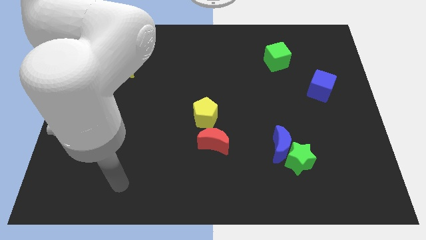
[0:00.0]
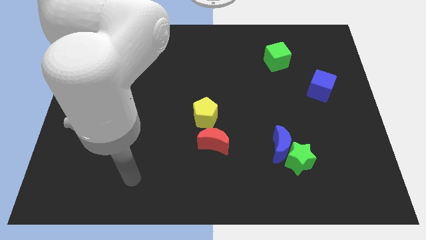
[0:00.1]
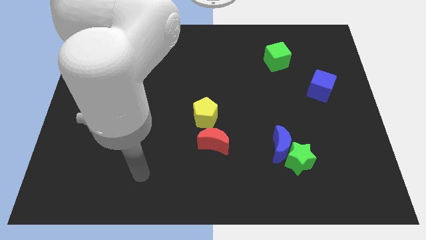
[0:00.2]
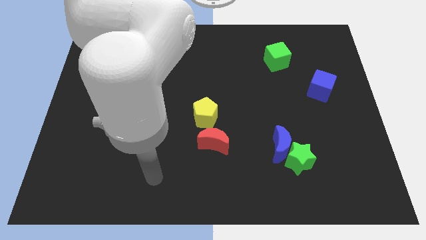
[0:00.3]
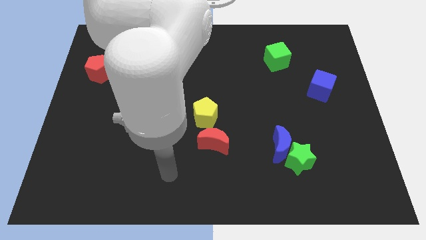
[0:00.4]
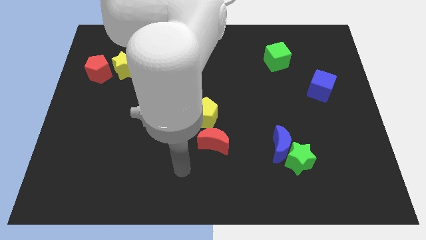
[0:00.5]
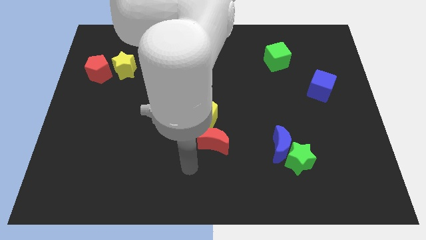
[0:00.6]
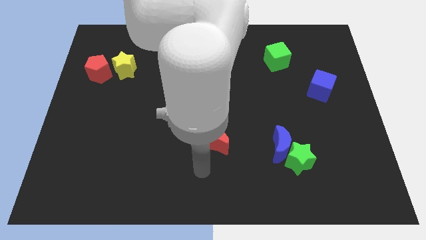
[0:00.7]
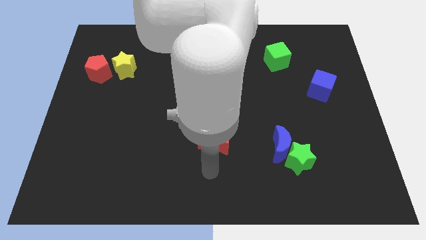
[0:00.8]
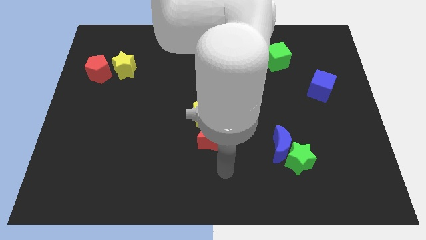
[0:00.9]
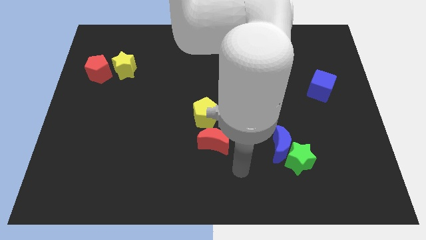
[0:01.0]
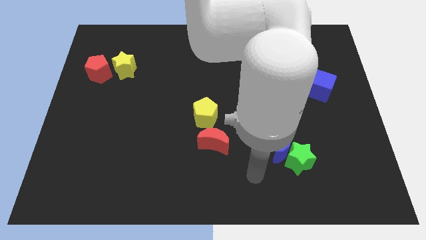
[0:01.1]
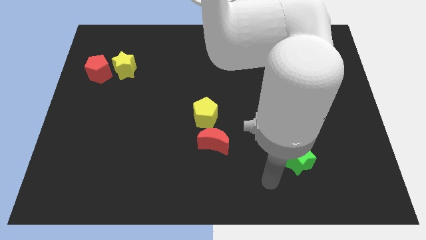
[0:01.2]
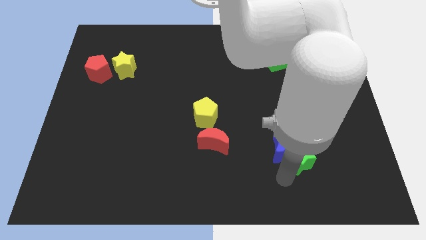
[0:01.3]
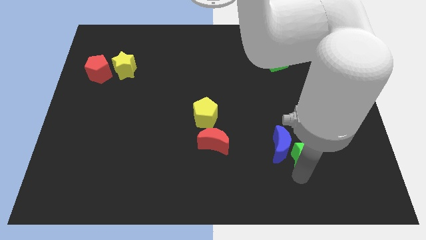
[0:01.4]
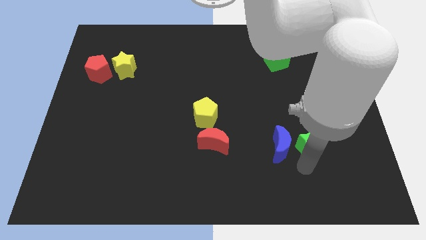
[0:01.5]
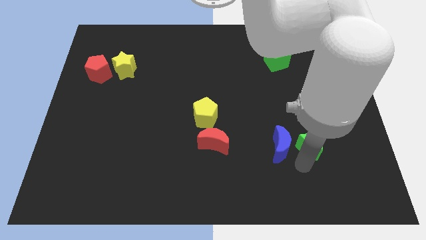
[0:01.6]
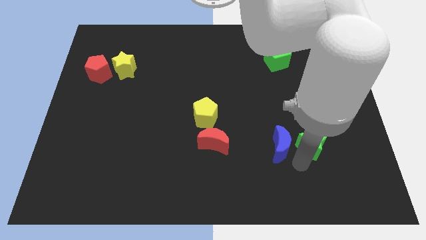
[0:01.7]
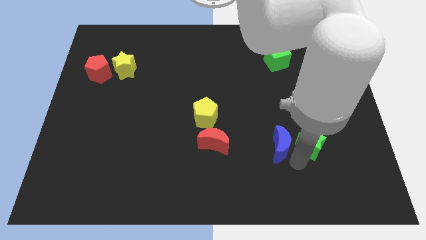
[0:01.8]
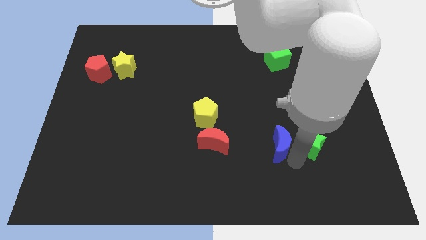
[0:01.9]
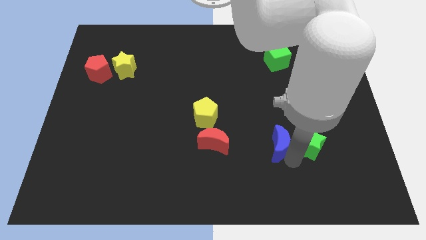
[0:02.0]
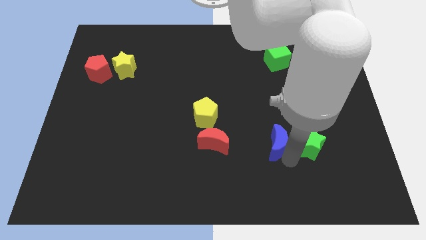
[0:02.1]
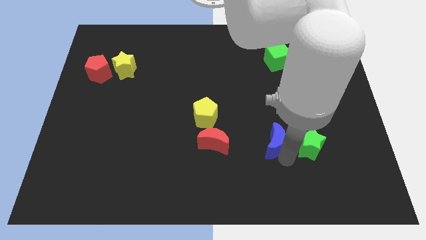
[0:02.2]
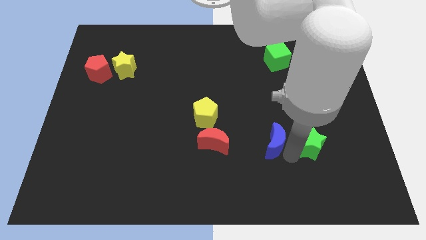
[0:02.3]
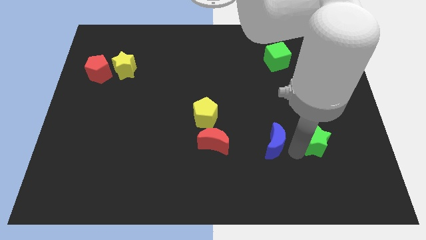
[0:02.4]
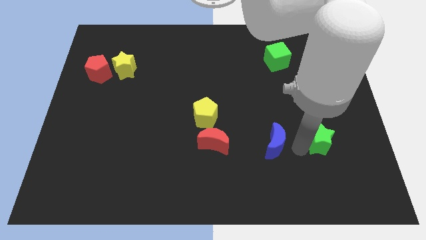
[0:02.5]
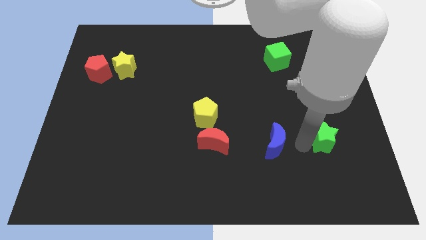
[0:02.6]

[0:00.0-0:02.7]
move the blue moon away from the green star

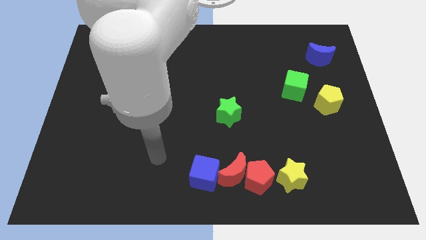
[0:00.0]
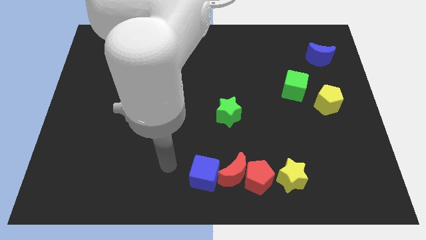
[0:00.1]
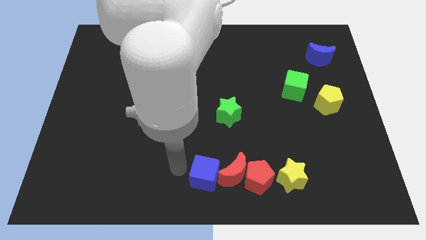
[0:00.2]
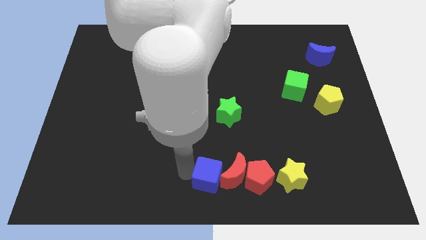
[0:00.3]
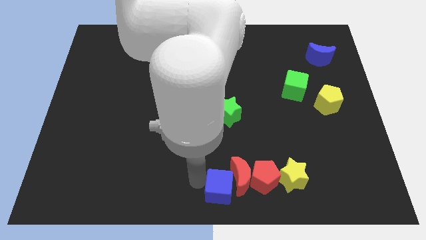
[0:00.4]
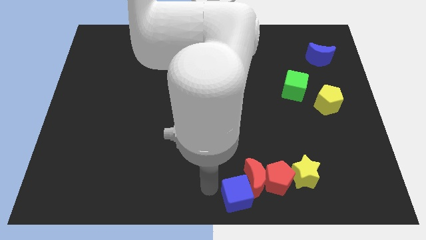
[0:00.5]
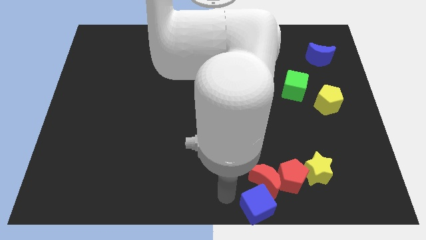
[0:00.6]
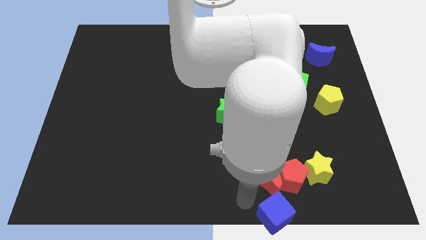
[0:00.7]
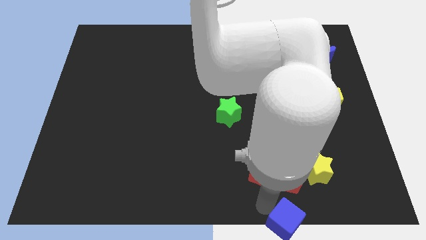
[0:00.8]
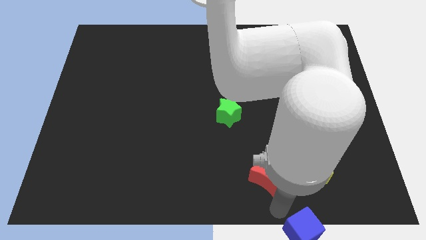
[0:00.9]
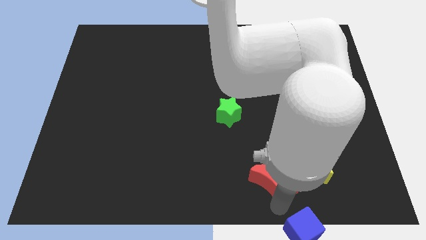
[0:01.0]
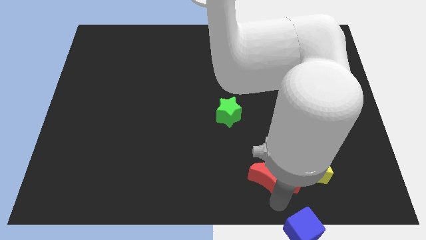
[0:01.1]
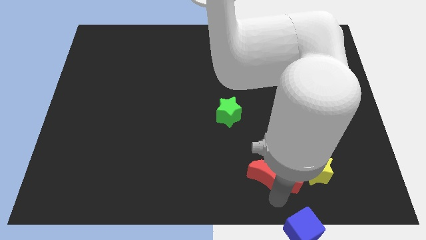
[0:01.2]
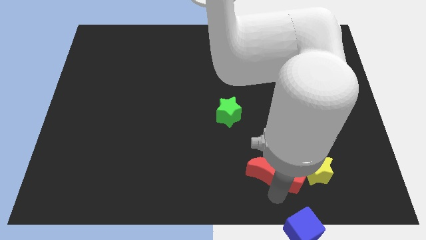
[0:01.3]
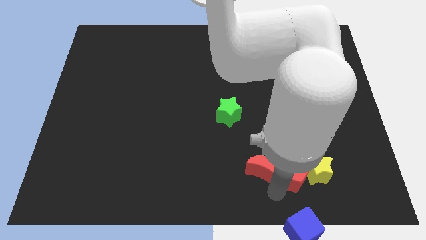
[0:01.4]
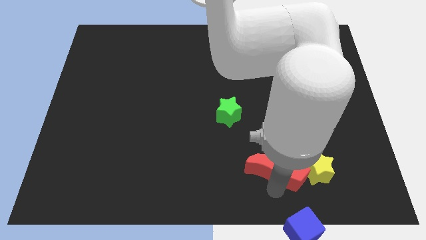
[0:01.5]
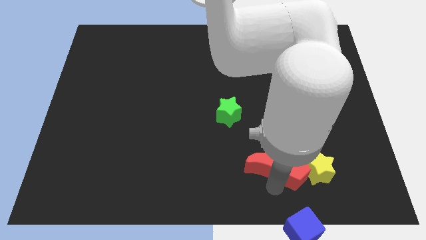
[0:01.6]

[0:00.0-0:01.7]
move the red moon away from the red pentagon and blue cube

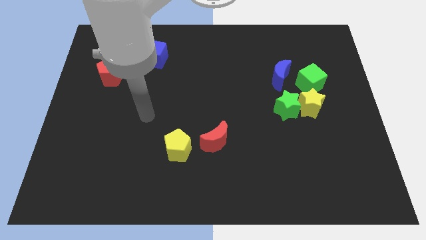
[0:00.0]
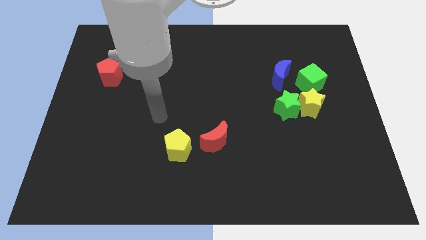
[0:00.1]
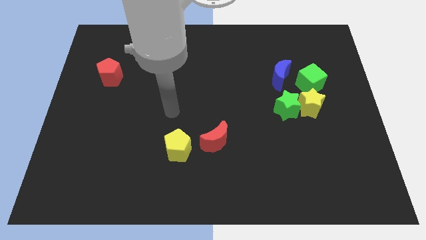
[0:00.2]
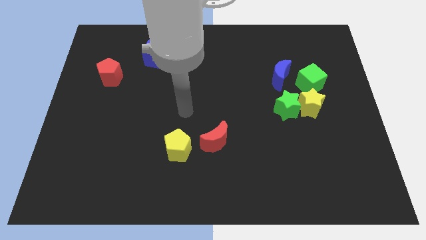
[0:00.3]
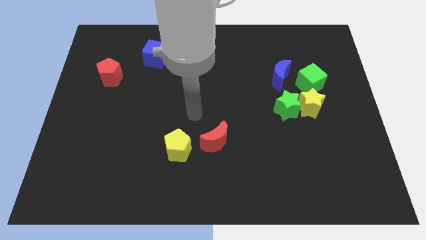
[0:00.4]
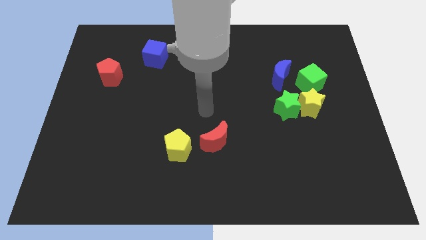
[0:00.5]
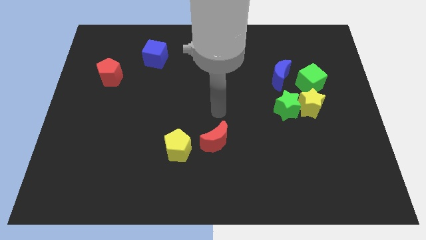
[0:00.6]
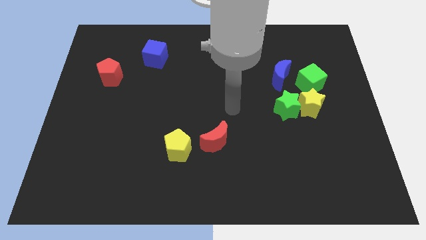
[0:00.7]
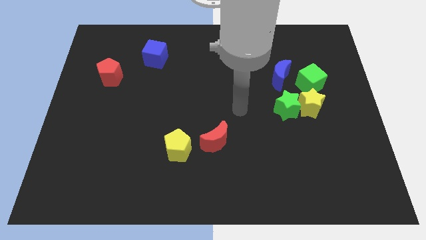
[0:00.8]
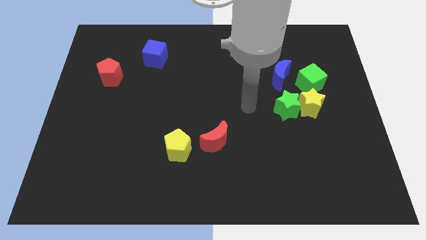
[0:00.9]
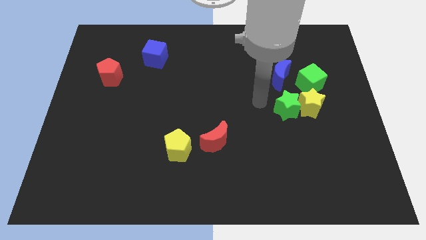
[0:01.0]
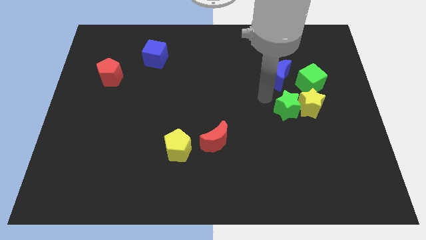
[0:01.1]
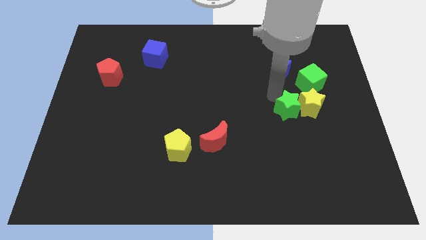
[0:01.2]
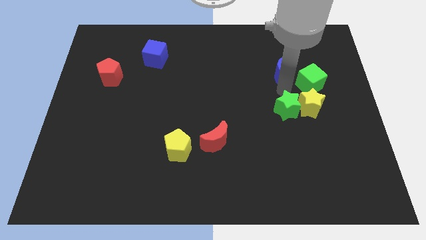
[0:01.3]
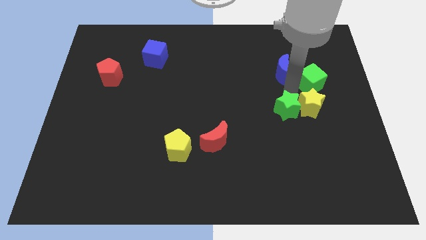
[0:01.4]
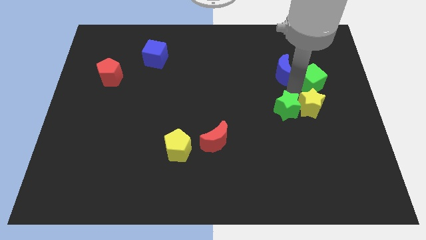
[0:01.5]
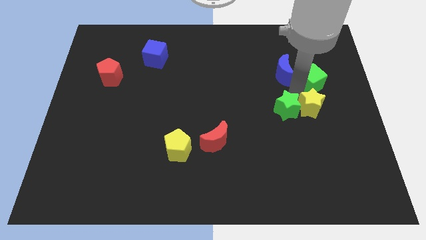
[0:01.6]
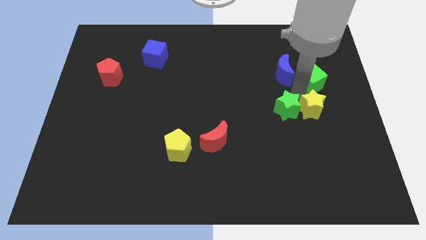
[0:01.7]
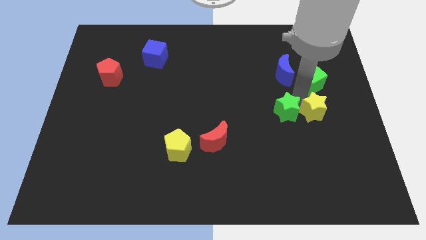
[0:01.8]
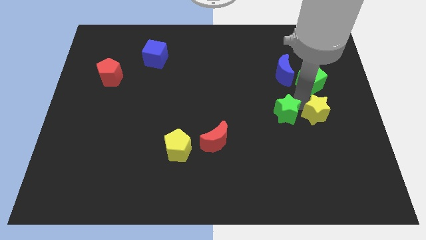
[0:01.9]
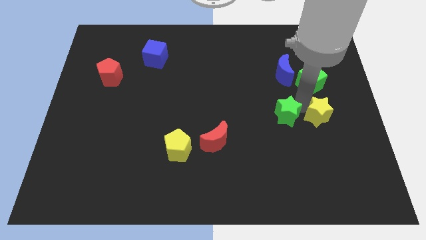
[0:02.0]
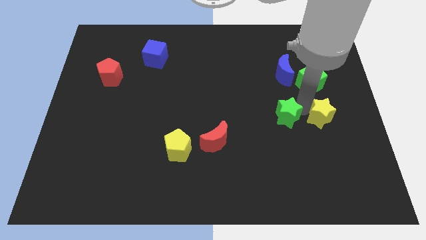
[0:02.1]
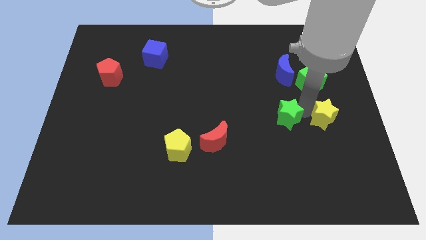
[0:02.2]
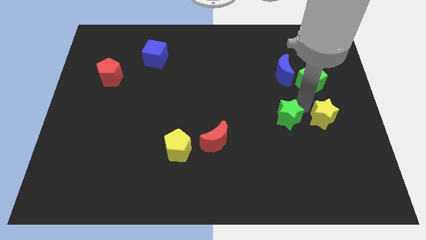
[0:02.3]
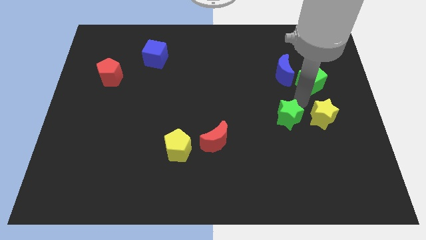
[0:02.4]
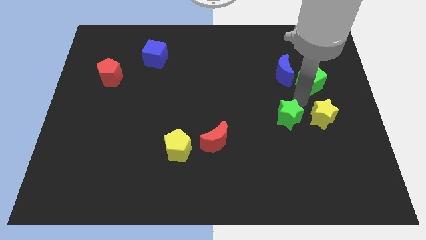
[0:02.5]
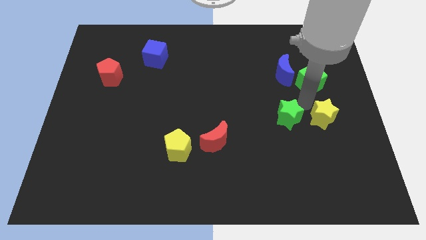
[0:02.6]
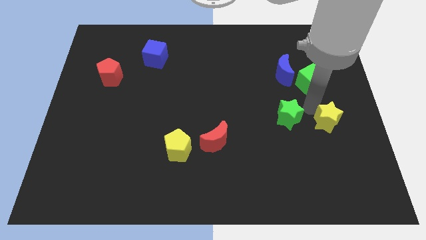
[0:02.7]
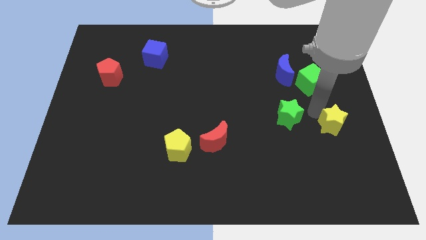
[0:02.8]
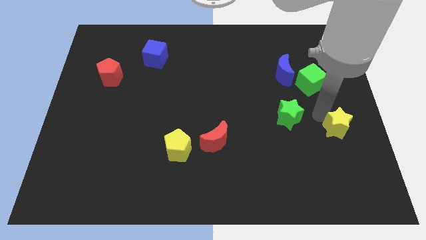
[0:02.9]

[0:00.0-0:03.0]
move the yellow star away from the green star and green cube

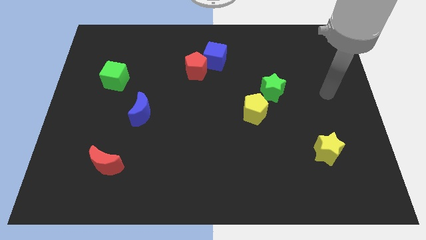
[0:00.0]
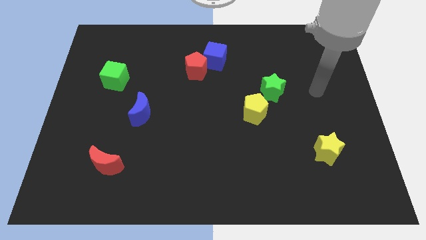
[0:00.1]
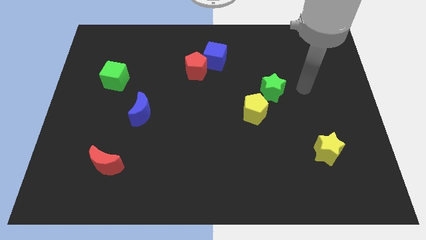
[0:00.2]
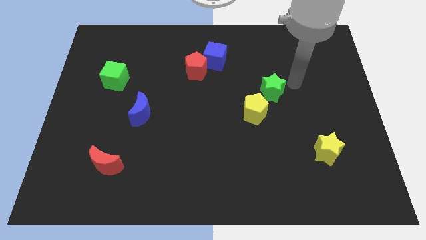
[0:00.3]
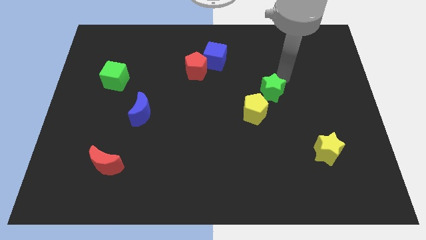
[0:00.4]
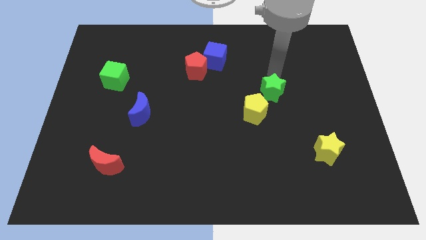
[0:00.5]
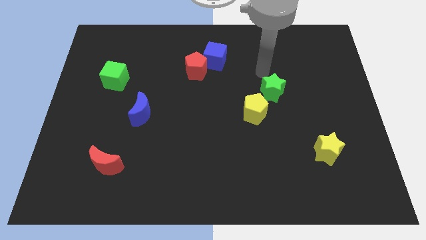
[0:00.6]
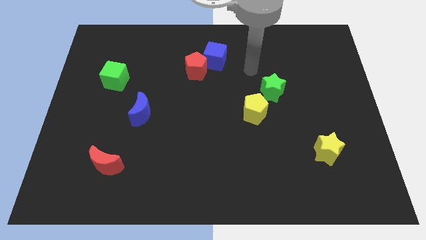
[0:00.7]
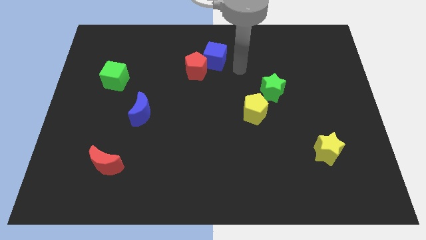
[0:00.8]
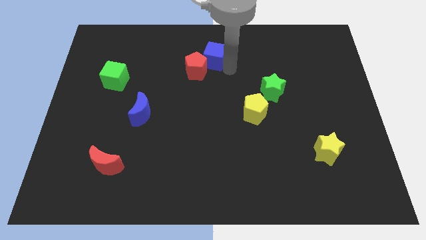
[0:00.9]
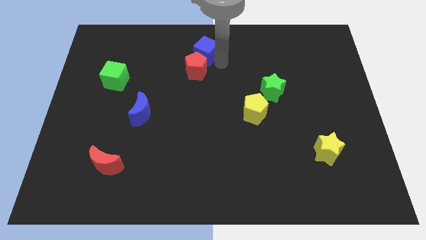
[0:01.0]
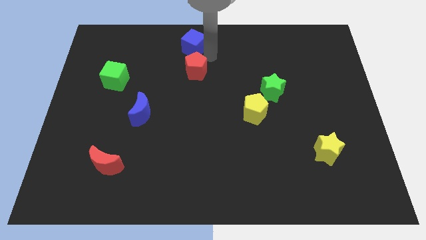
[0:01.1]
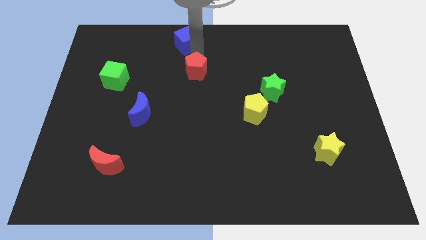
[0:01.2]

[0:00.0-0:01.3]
pull the red pentagon apart from the blue cube

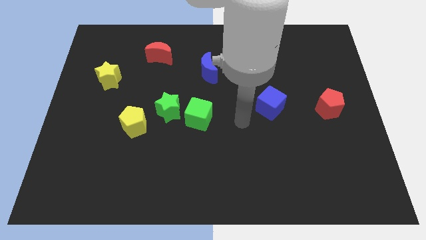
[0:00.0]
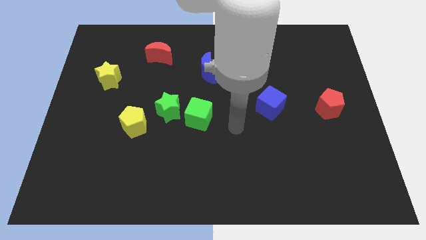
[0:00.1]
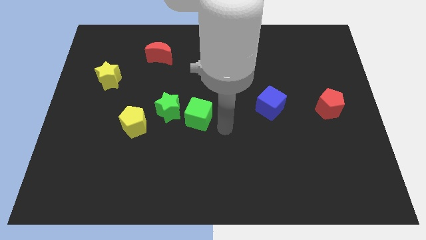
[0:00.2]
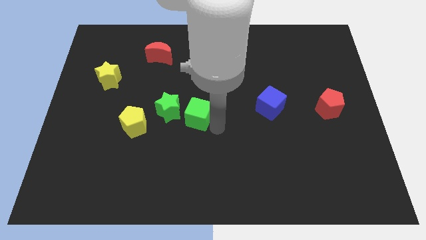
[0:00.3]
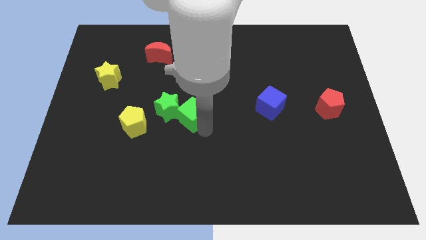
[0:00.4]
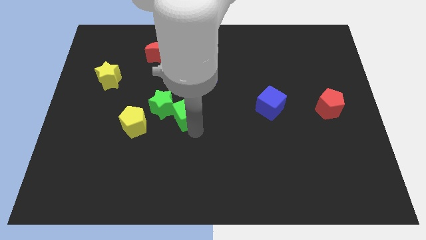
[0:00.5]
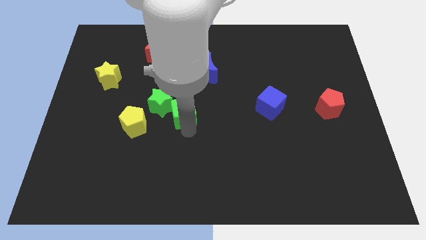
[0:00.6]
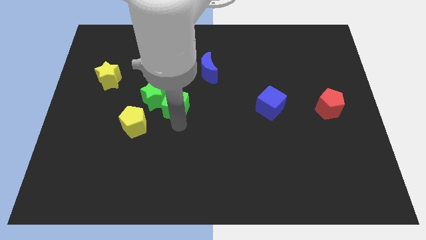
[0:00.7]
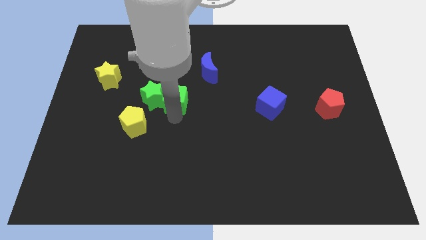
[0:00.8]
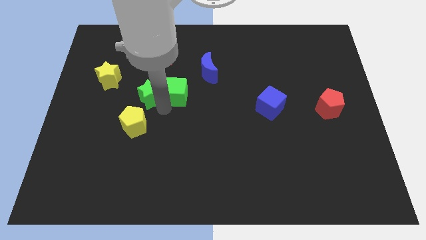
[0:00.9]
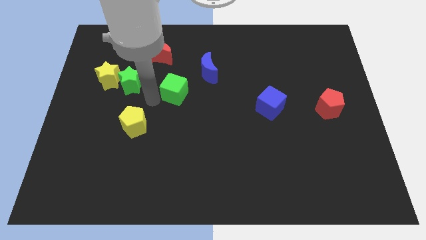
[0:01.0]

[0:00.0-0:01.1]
pull the green cube apart from the green star
